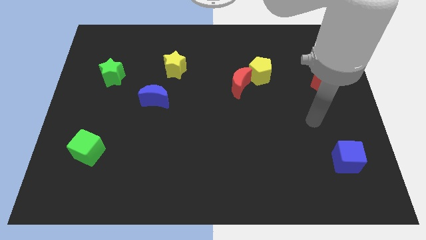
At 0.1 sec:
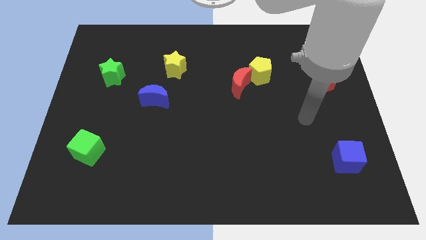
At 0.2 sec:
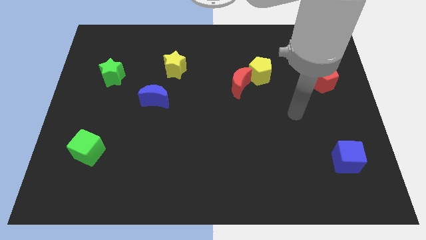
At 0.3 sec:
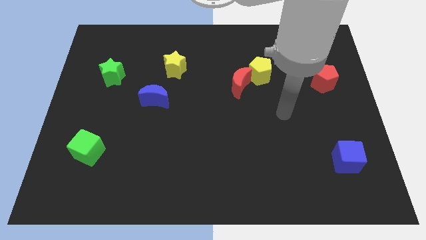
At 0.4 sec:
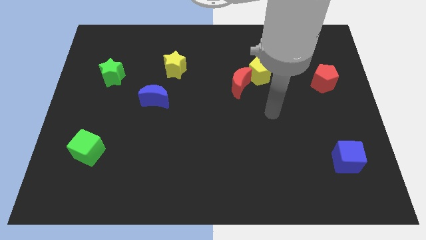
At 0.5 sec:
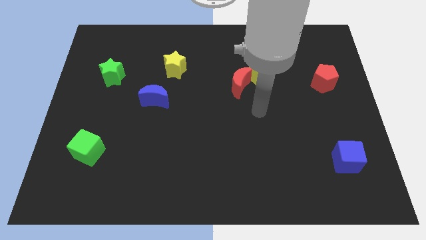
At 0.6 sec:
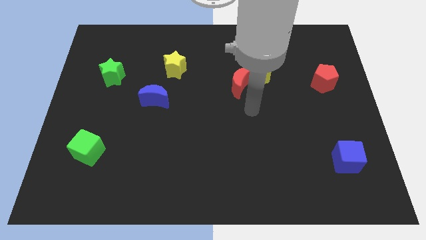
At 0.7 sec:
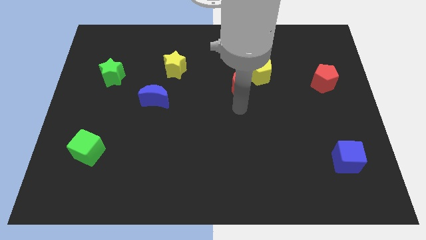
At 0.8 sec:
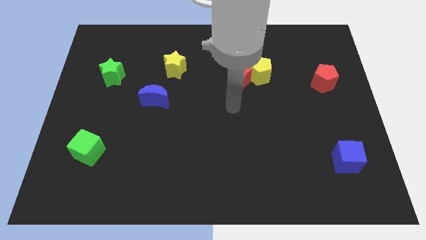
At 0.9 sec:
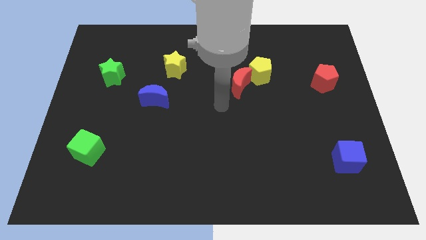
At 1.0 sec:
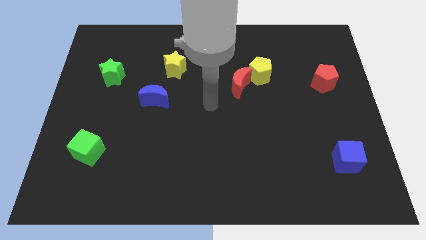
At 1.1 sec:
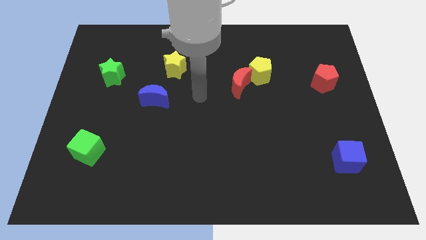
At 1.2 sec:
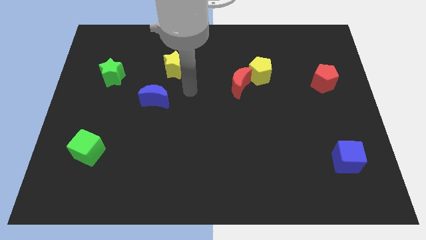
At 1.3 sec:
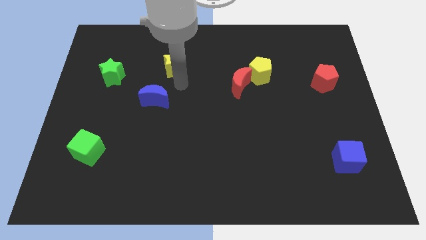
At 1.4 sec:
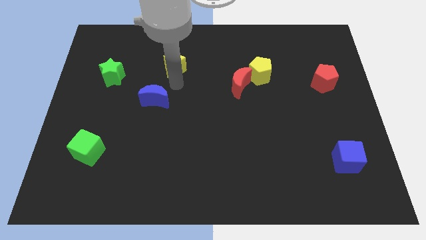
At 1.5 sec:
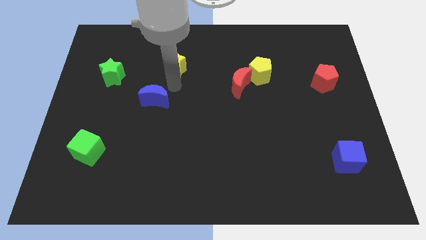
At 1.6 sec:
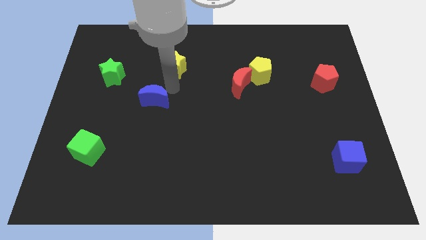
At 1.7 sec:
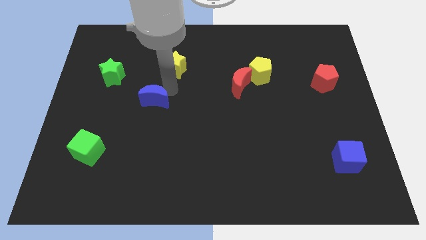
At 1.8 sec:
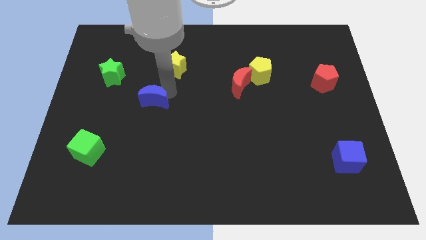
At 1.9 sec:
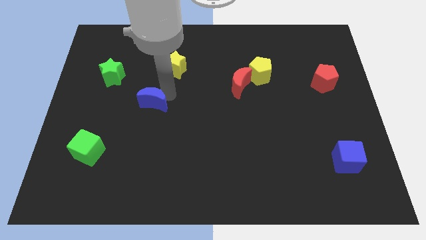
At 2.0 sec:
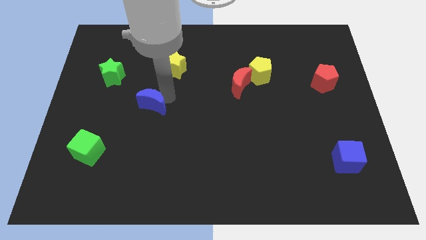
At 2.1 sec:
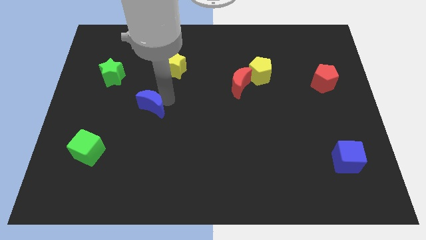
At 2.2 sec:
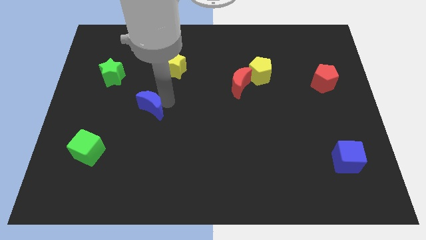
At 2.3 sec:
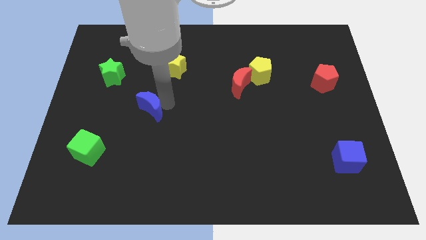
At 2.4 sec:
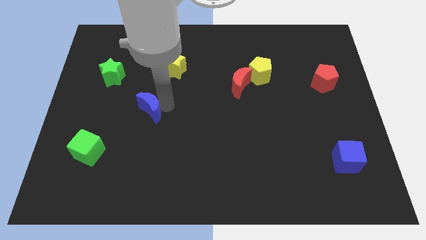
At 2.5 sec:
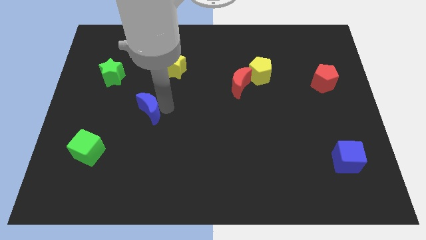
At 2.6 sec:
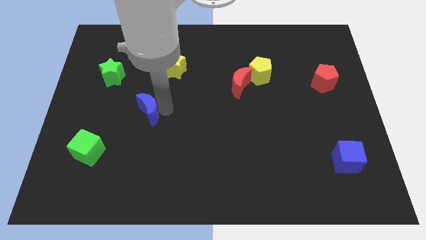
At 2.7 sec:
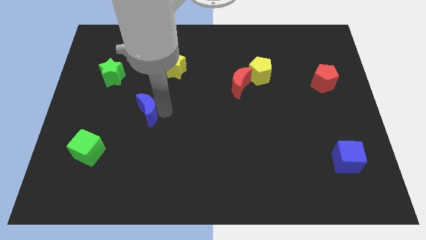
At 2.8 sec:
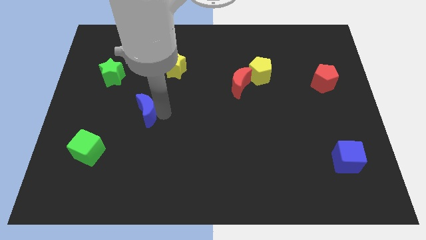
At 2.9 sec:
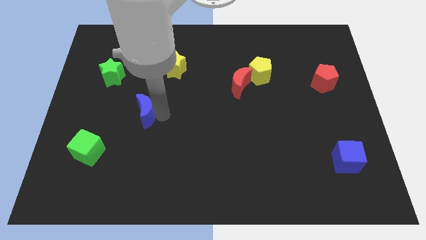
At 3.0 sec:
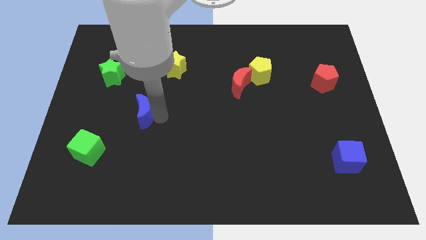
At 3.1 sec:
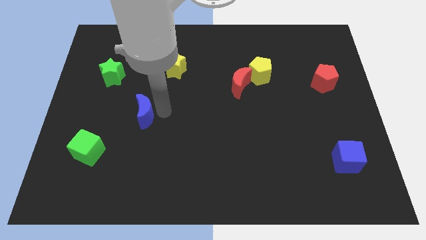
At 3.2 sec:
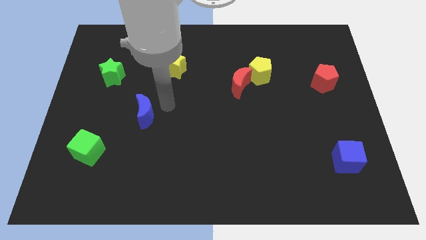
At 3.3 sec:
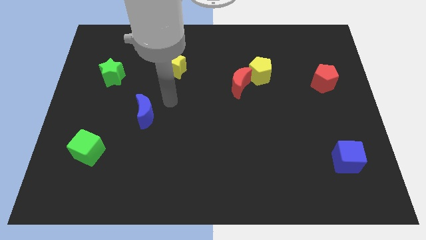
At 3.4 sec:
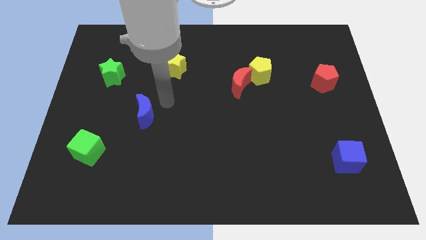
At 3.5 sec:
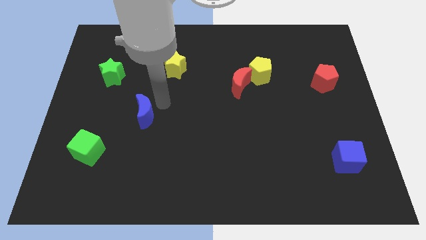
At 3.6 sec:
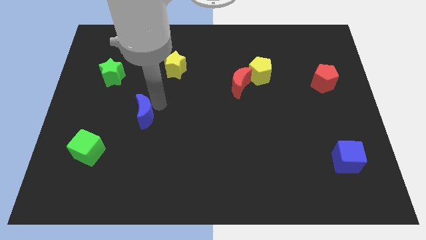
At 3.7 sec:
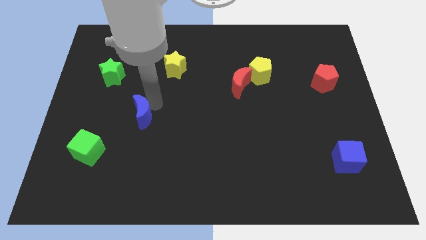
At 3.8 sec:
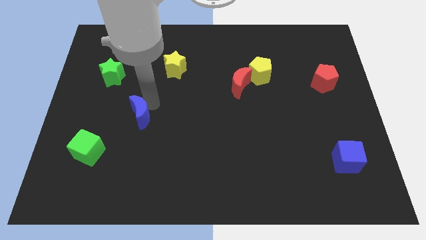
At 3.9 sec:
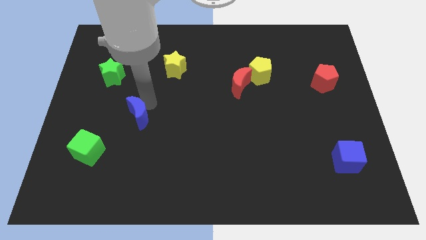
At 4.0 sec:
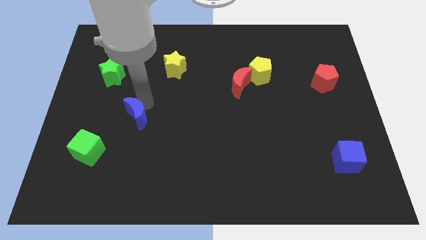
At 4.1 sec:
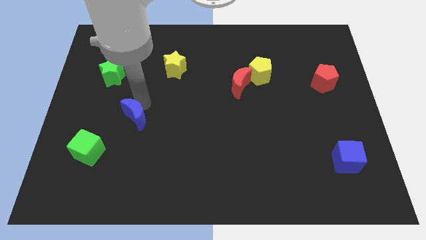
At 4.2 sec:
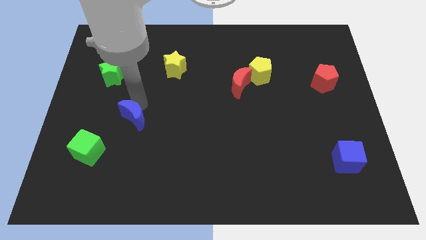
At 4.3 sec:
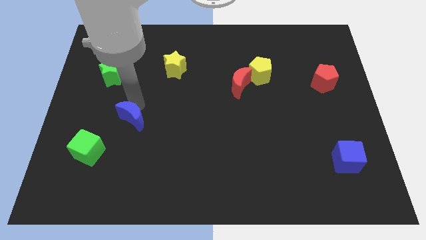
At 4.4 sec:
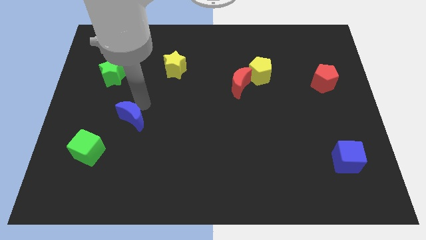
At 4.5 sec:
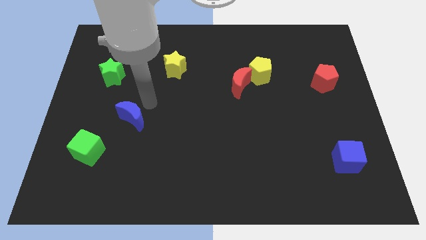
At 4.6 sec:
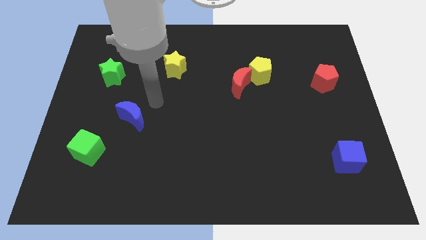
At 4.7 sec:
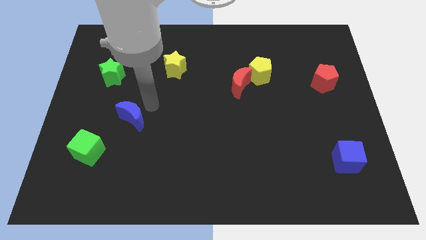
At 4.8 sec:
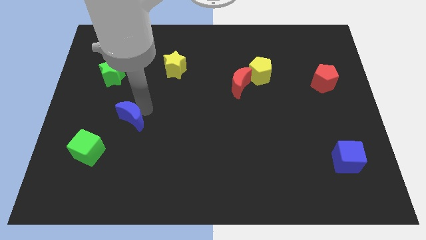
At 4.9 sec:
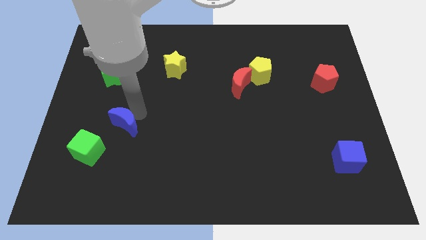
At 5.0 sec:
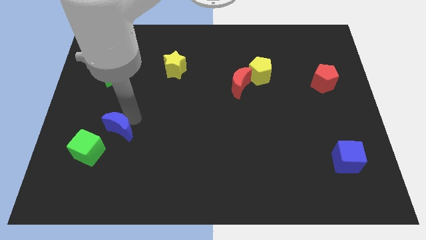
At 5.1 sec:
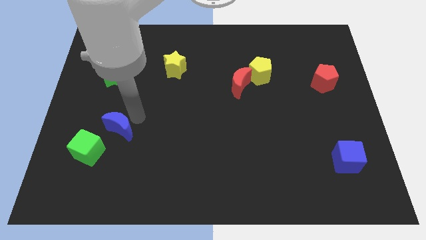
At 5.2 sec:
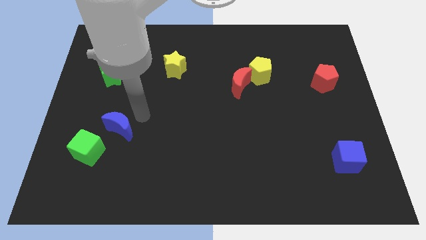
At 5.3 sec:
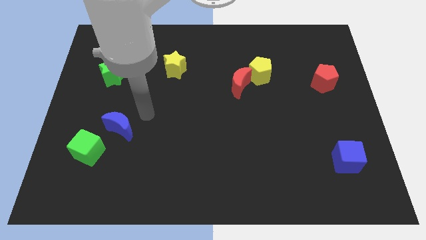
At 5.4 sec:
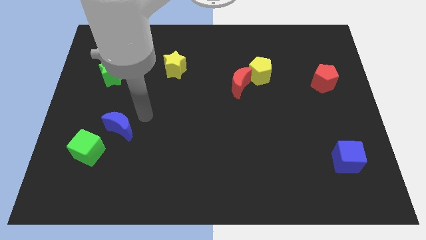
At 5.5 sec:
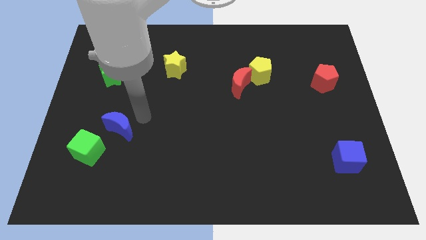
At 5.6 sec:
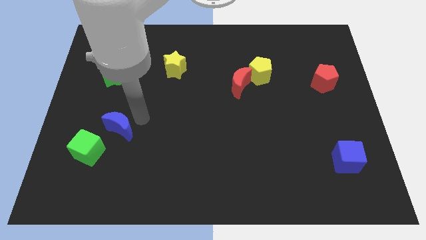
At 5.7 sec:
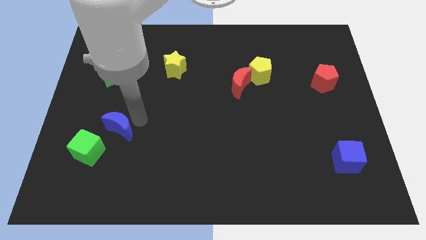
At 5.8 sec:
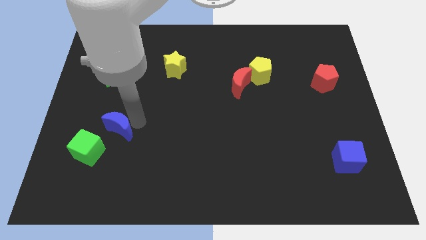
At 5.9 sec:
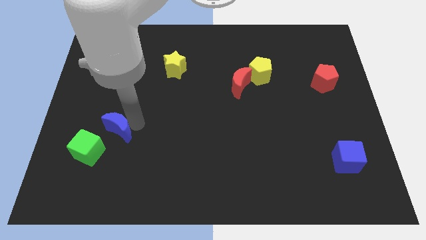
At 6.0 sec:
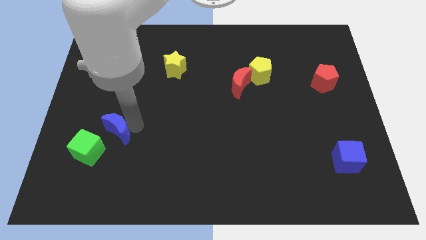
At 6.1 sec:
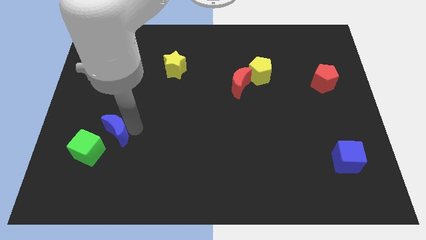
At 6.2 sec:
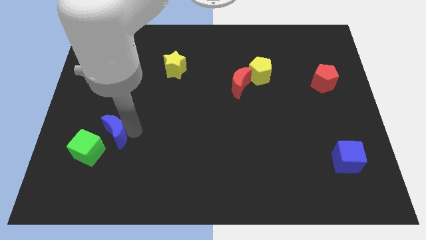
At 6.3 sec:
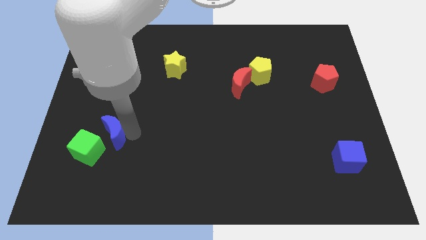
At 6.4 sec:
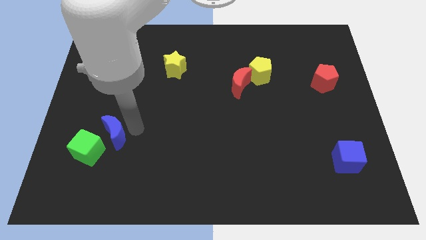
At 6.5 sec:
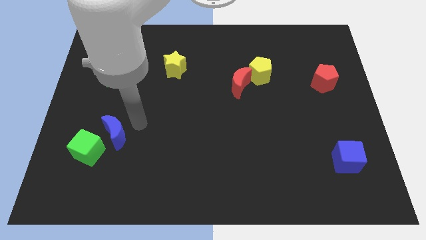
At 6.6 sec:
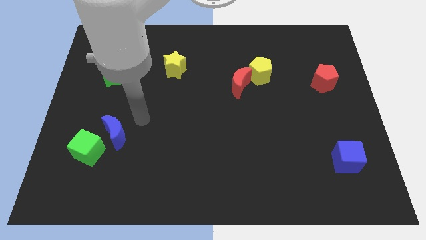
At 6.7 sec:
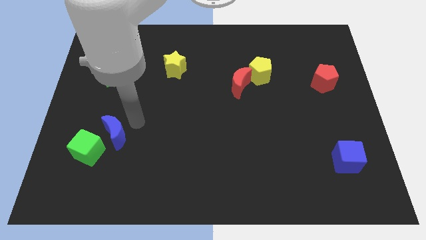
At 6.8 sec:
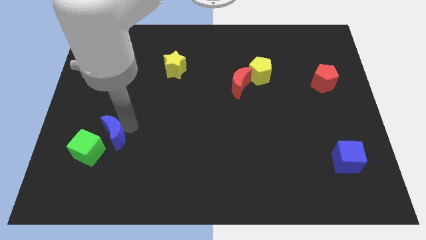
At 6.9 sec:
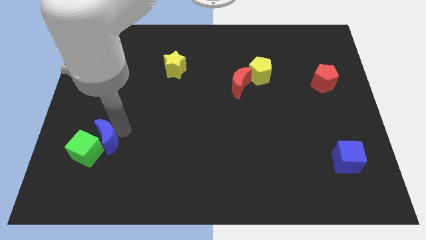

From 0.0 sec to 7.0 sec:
slide the blue moon to the green cube
